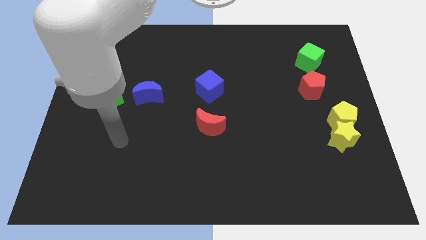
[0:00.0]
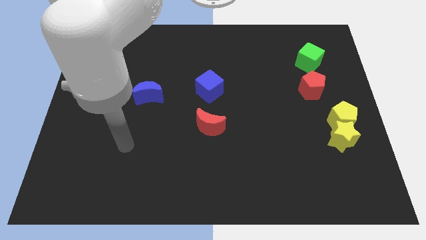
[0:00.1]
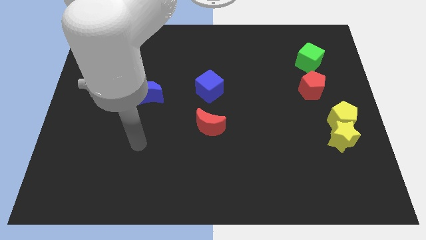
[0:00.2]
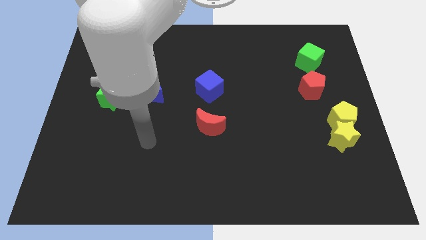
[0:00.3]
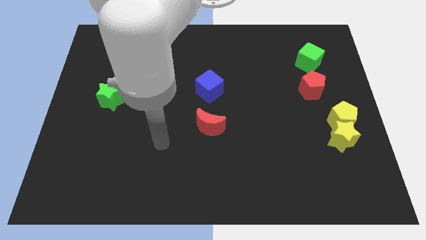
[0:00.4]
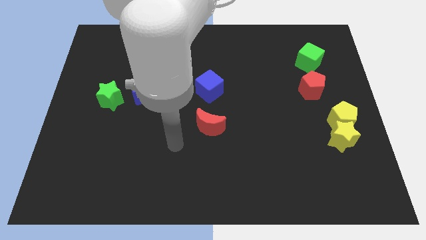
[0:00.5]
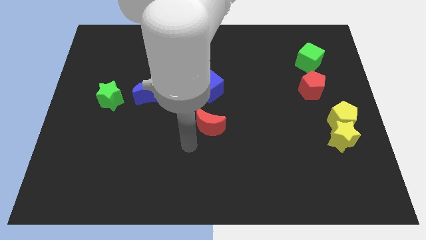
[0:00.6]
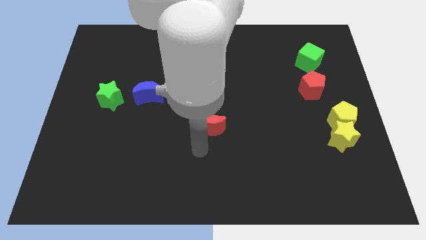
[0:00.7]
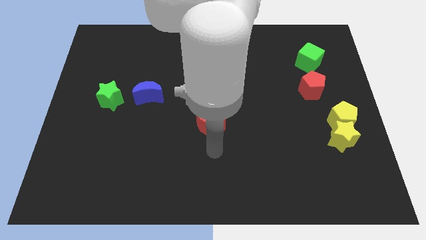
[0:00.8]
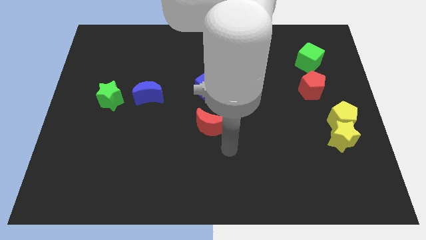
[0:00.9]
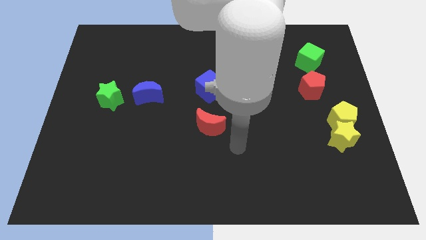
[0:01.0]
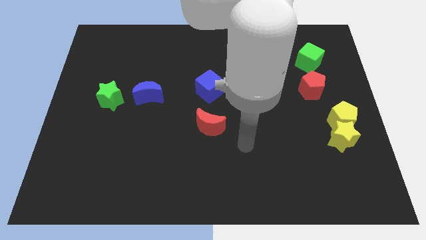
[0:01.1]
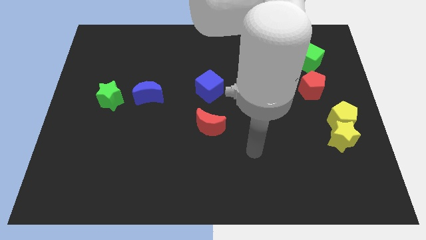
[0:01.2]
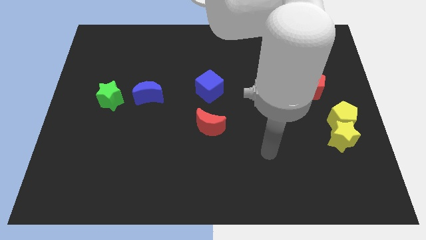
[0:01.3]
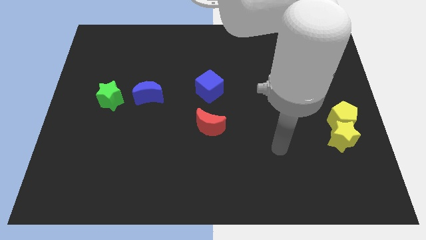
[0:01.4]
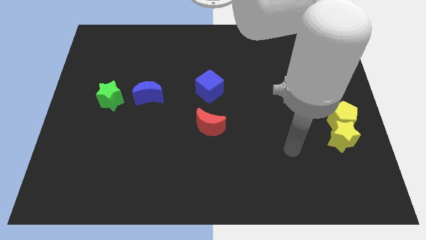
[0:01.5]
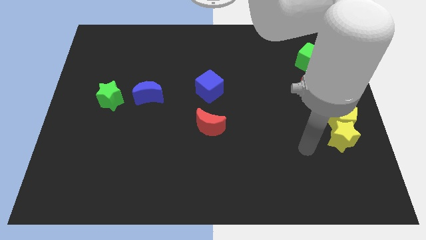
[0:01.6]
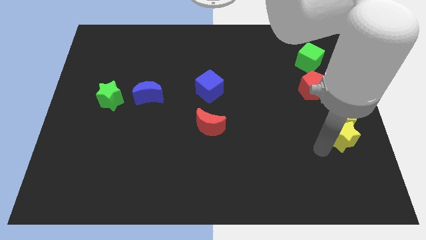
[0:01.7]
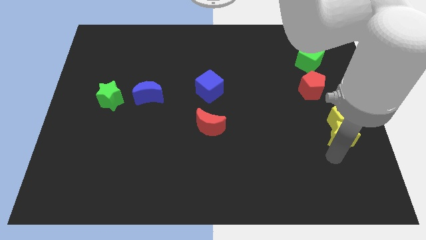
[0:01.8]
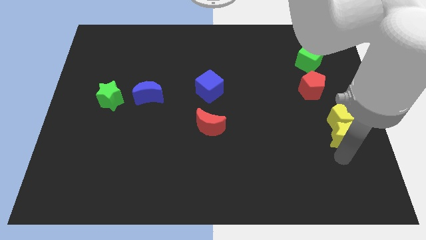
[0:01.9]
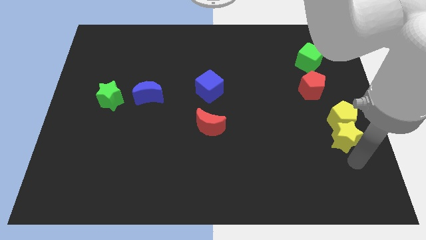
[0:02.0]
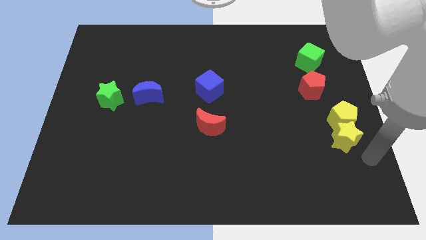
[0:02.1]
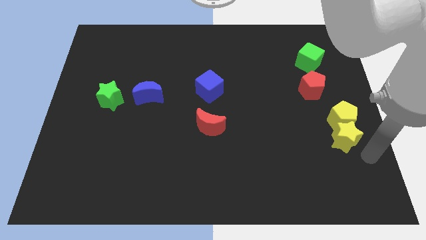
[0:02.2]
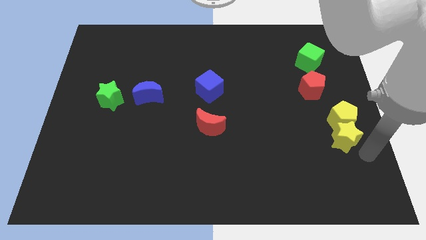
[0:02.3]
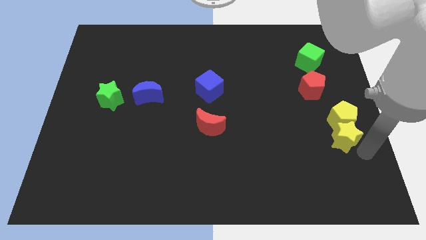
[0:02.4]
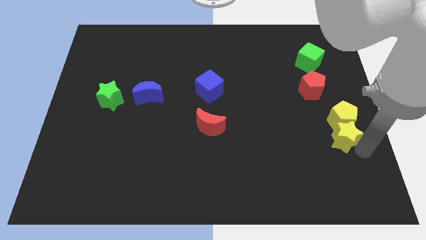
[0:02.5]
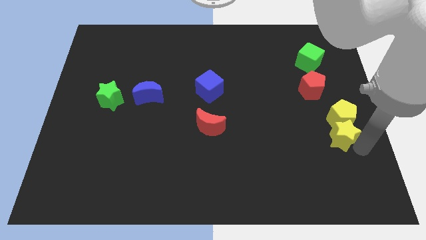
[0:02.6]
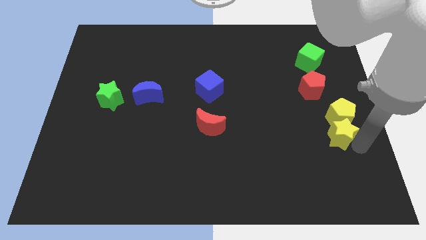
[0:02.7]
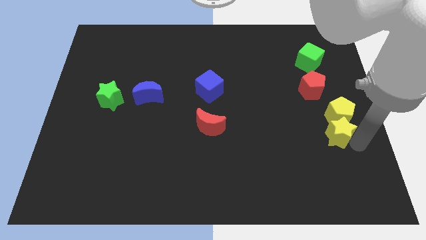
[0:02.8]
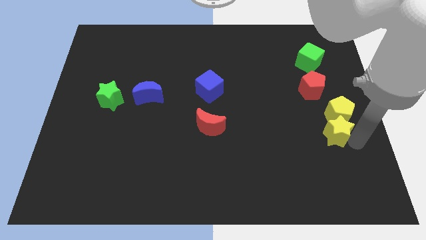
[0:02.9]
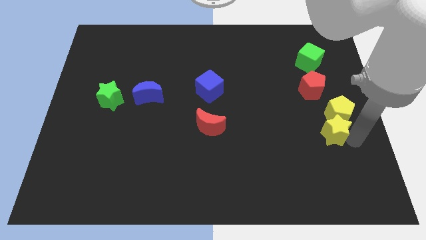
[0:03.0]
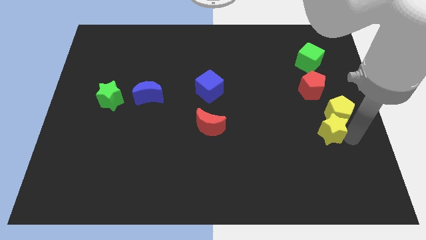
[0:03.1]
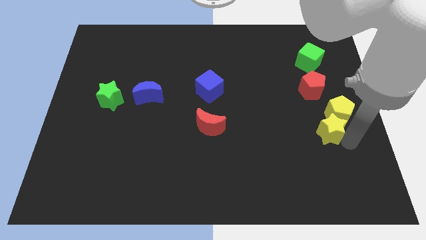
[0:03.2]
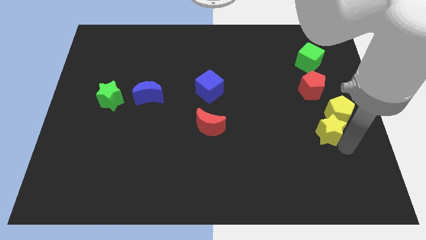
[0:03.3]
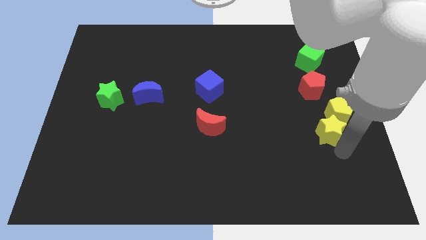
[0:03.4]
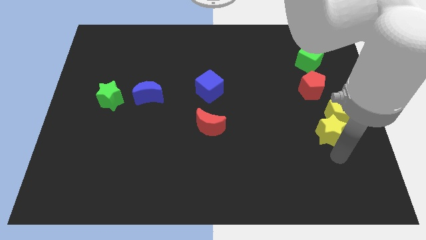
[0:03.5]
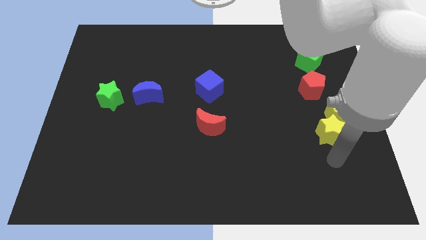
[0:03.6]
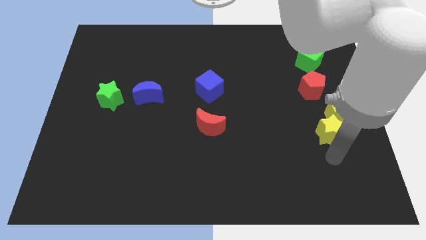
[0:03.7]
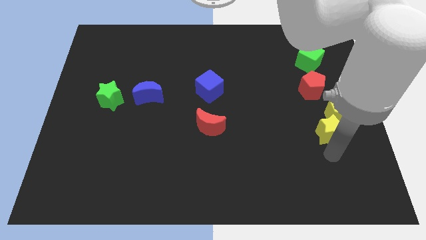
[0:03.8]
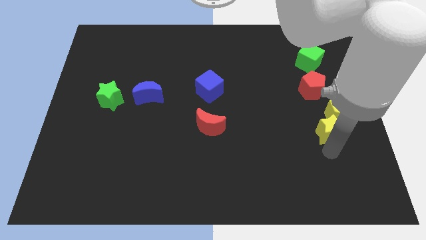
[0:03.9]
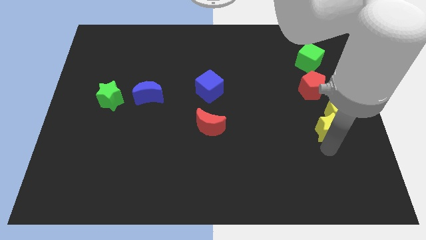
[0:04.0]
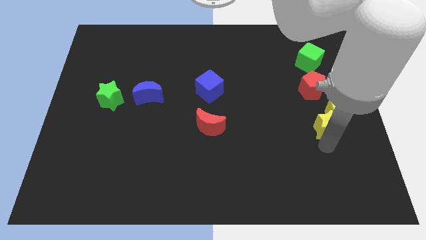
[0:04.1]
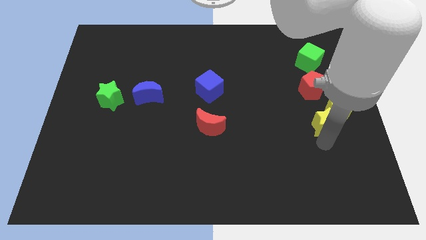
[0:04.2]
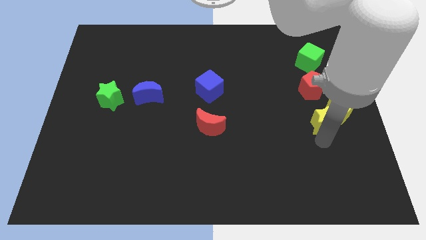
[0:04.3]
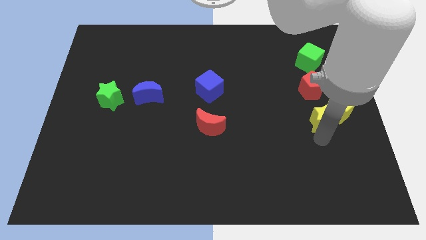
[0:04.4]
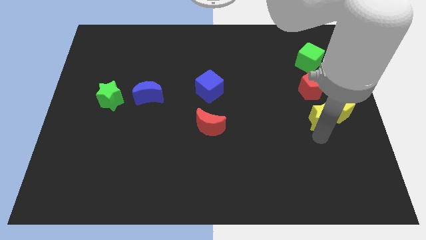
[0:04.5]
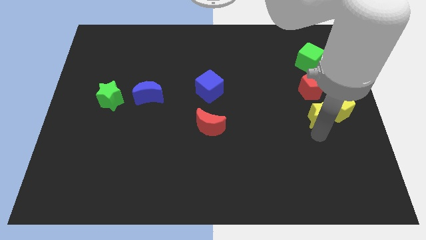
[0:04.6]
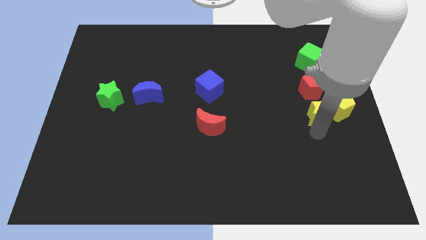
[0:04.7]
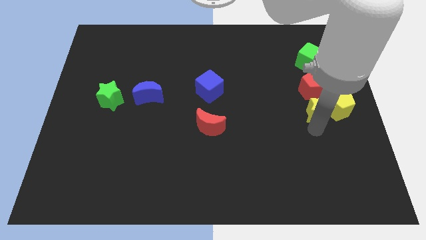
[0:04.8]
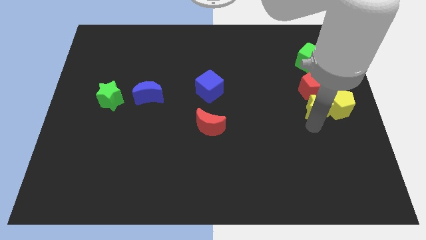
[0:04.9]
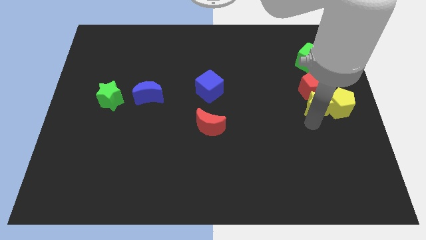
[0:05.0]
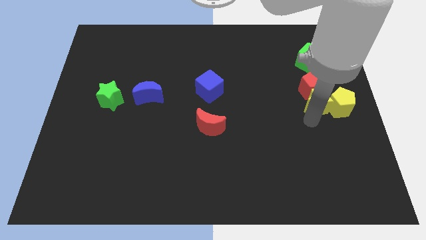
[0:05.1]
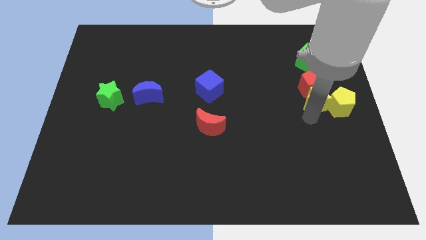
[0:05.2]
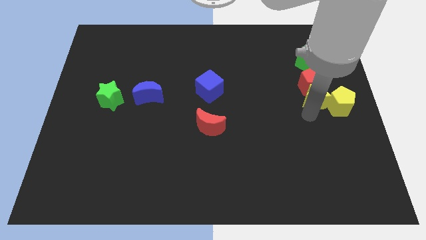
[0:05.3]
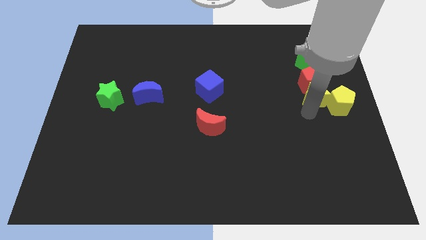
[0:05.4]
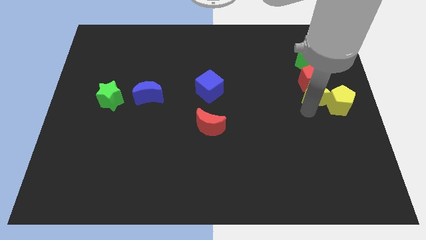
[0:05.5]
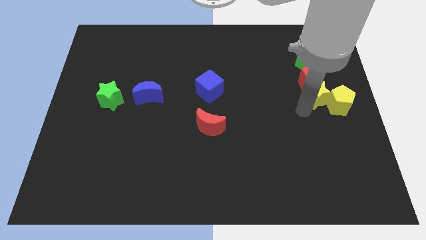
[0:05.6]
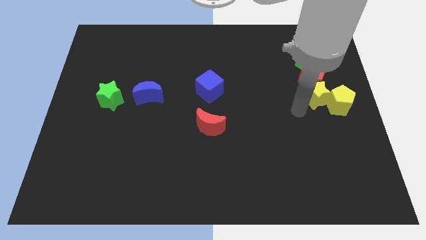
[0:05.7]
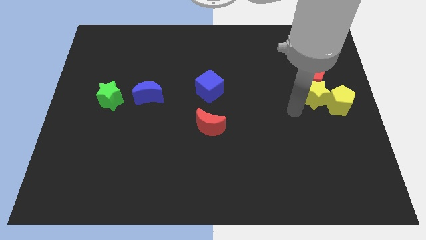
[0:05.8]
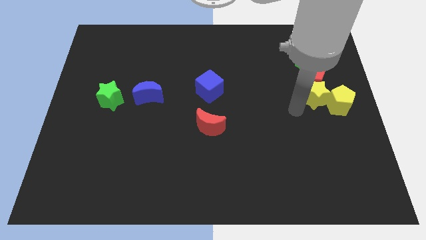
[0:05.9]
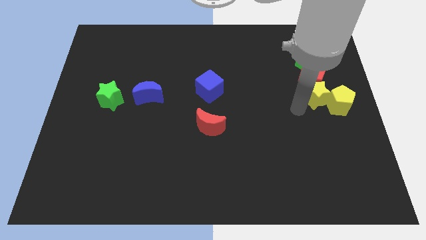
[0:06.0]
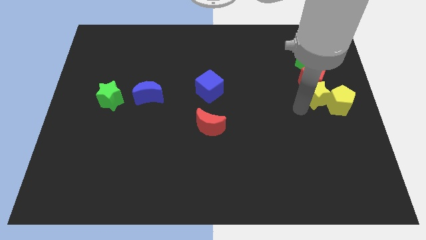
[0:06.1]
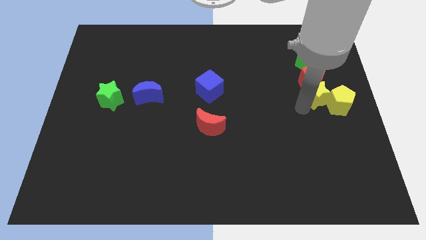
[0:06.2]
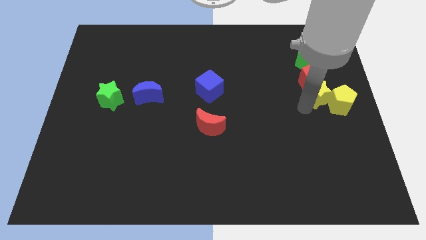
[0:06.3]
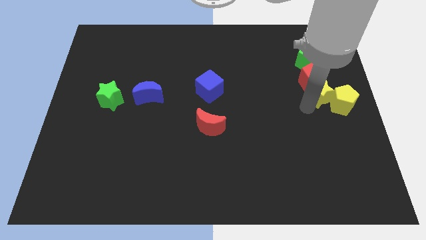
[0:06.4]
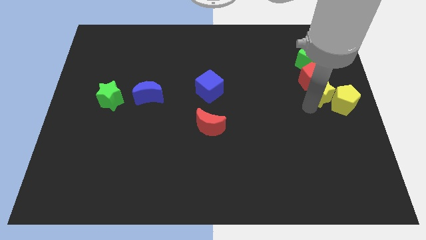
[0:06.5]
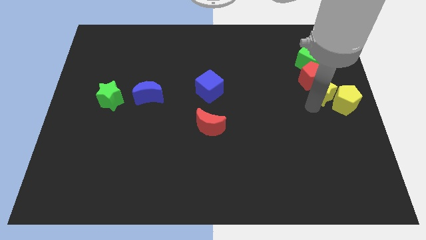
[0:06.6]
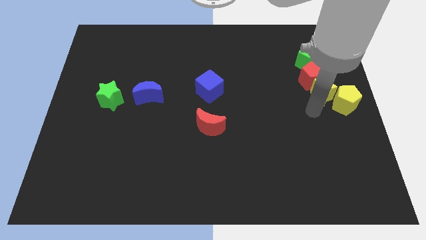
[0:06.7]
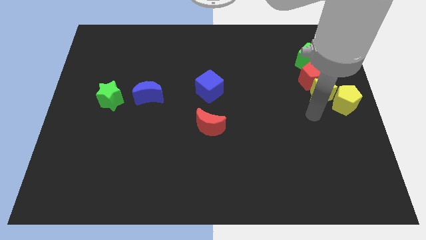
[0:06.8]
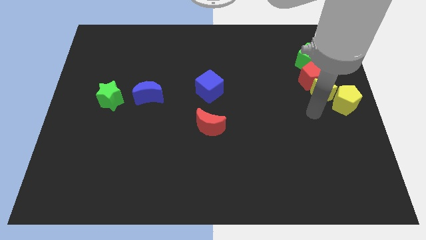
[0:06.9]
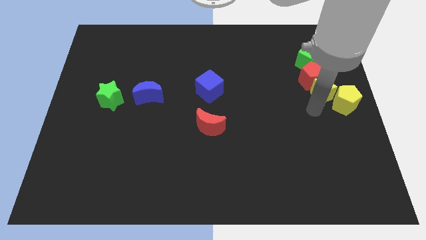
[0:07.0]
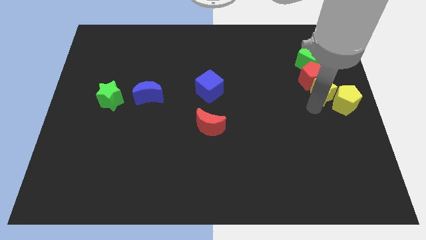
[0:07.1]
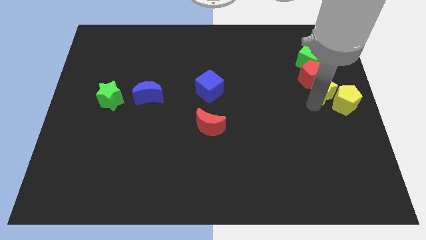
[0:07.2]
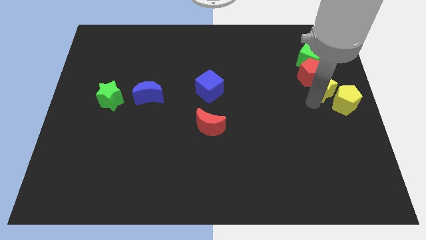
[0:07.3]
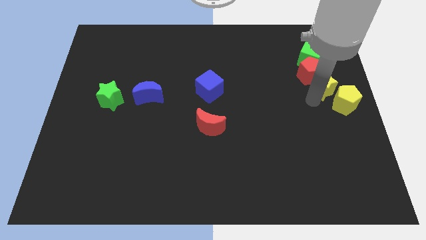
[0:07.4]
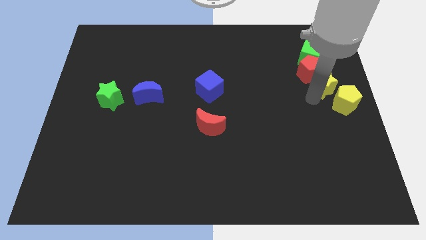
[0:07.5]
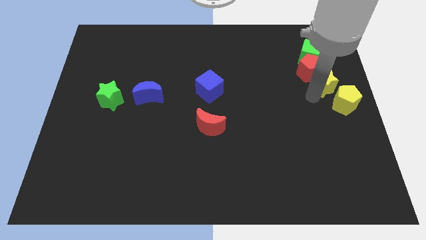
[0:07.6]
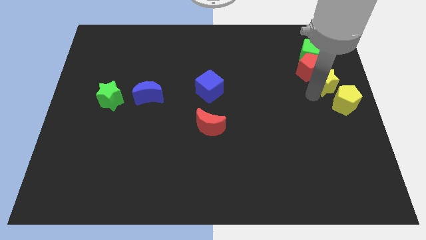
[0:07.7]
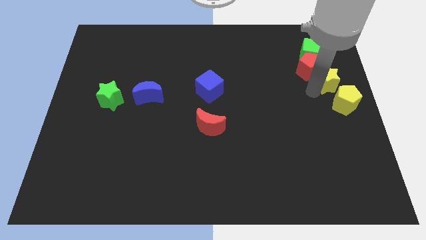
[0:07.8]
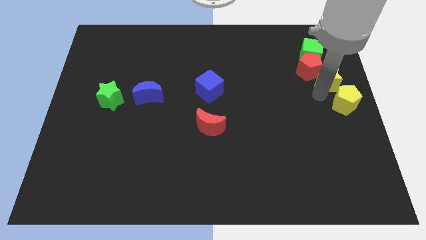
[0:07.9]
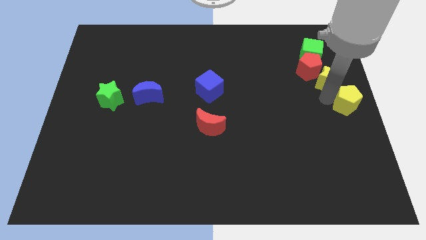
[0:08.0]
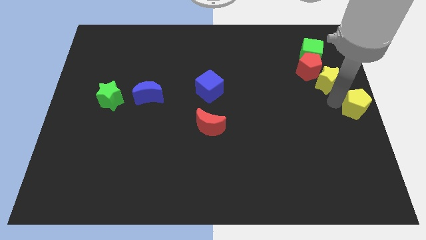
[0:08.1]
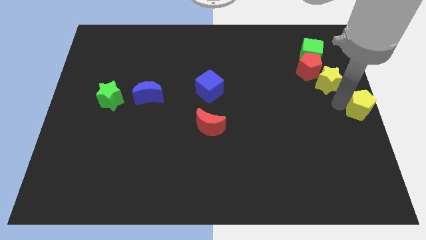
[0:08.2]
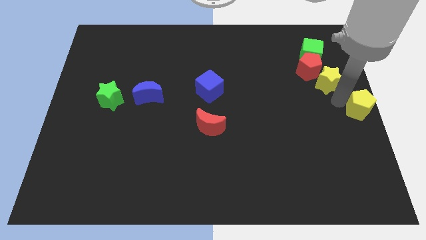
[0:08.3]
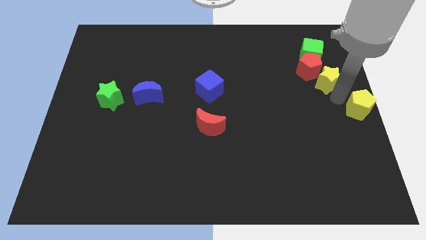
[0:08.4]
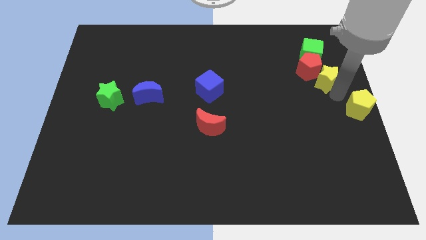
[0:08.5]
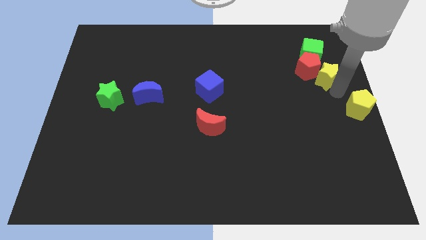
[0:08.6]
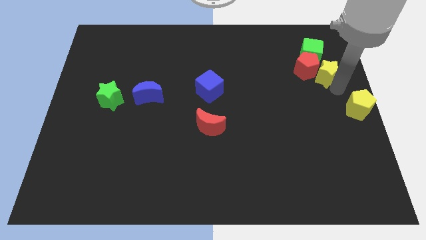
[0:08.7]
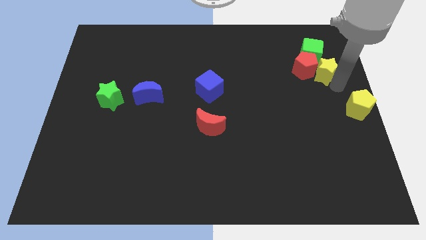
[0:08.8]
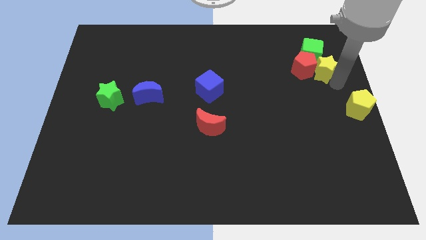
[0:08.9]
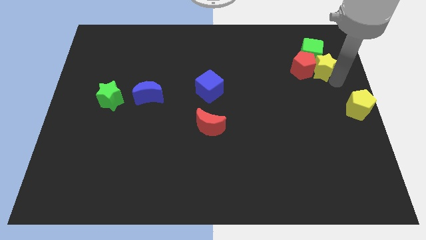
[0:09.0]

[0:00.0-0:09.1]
move the yellow star to the green cube
